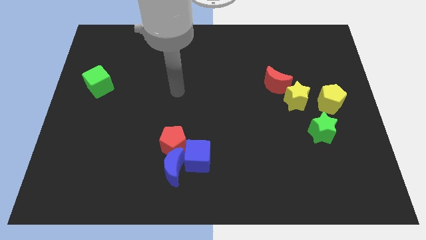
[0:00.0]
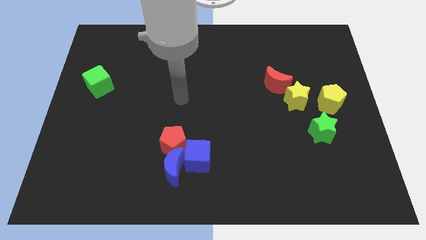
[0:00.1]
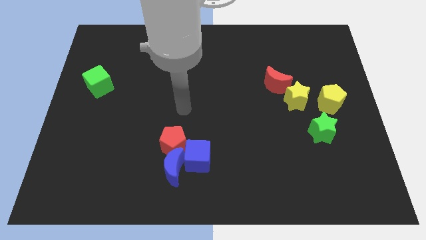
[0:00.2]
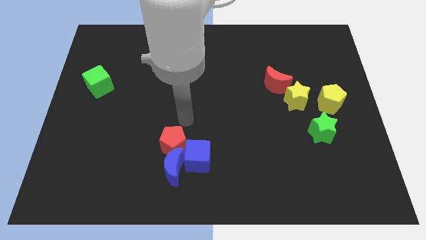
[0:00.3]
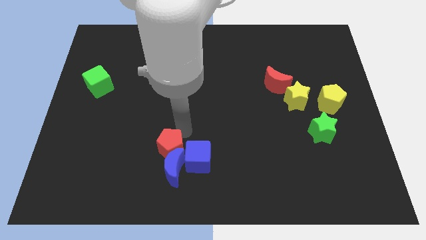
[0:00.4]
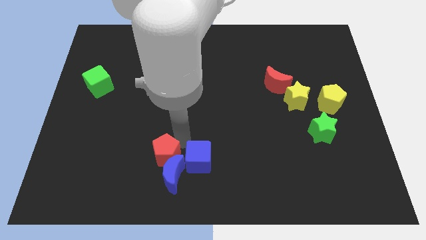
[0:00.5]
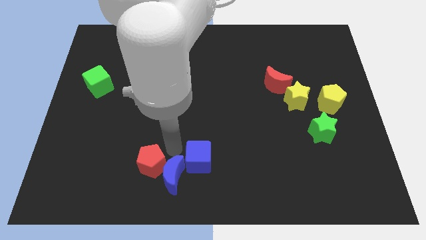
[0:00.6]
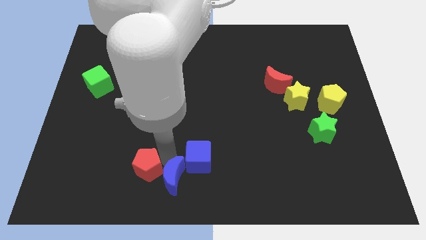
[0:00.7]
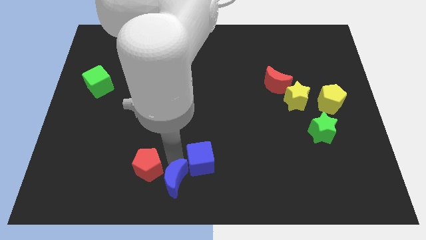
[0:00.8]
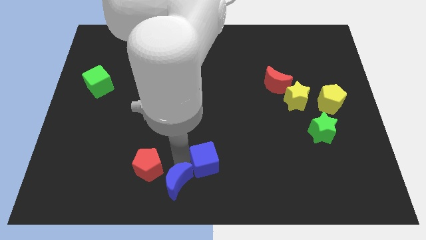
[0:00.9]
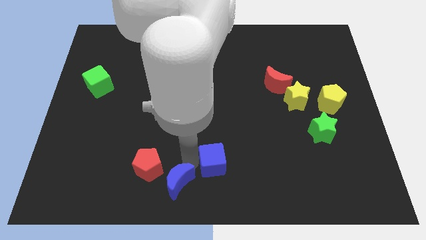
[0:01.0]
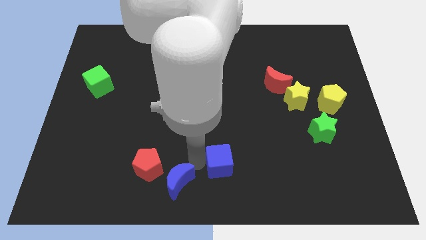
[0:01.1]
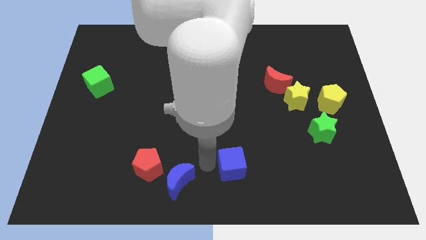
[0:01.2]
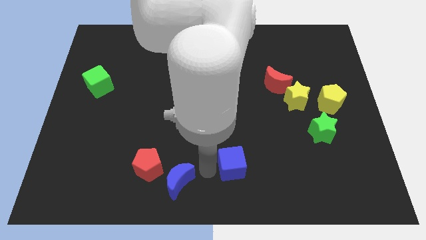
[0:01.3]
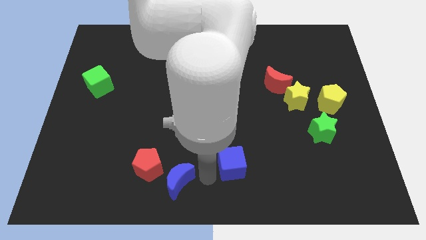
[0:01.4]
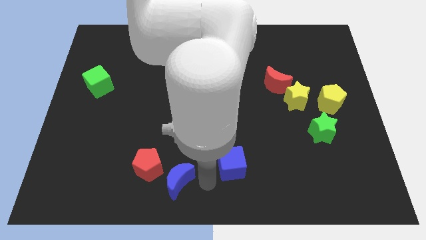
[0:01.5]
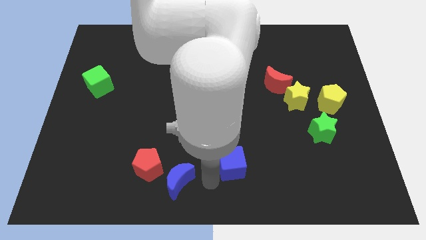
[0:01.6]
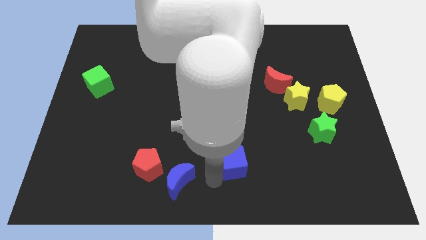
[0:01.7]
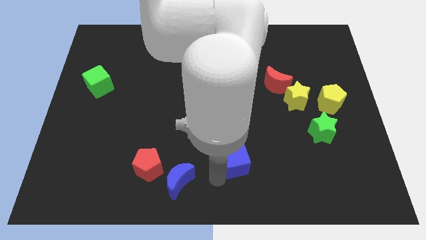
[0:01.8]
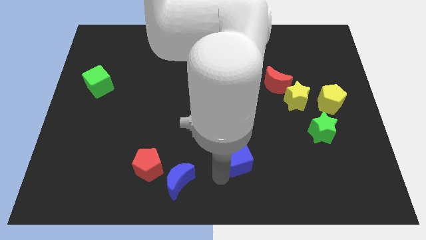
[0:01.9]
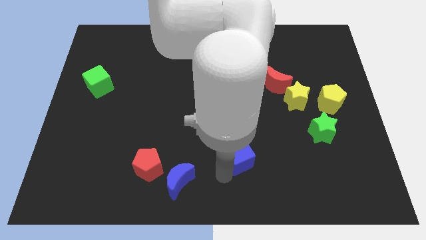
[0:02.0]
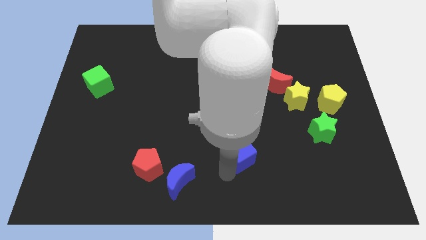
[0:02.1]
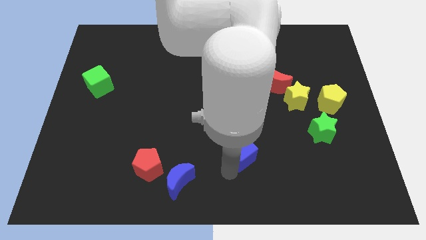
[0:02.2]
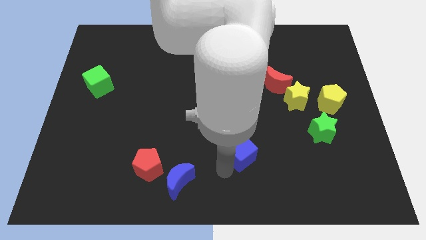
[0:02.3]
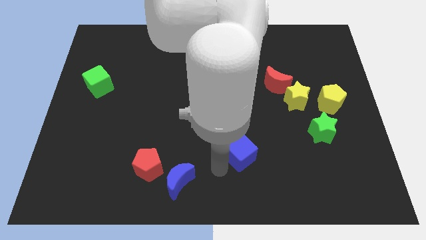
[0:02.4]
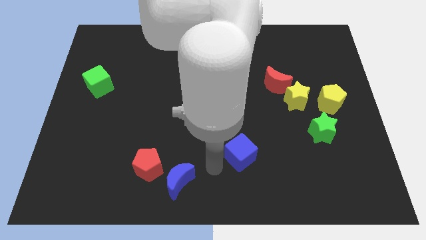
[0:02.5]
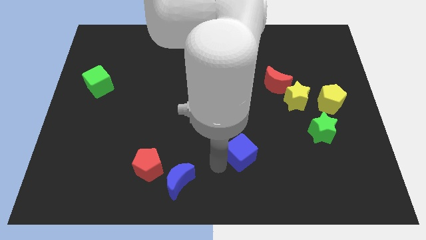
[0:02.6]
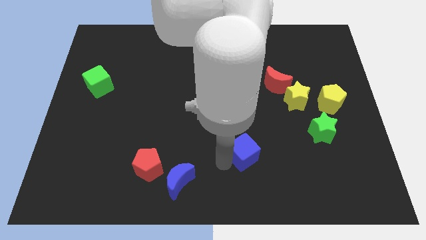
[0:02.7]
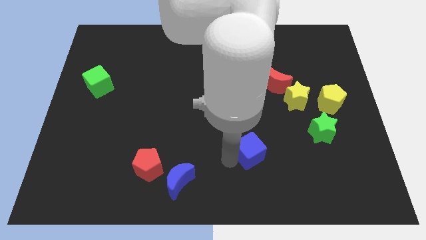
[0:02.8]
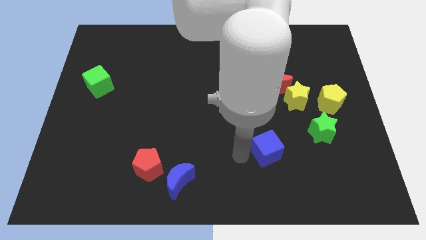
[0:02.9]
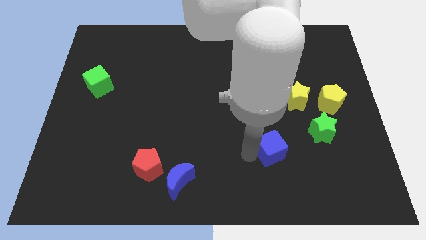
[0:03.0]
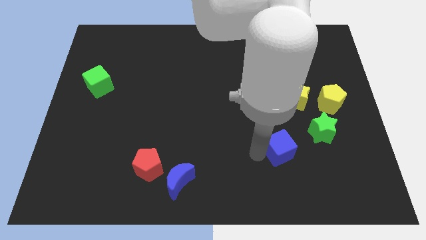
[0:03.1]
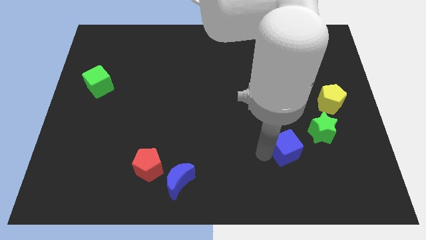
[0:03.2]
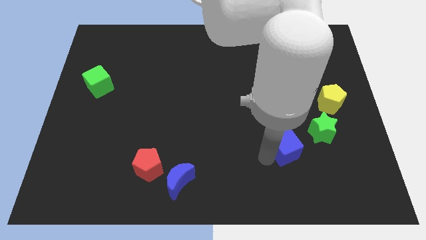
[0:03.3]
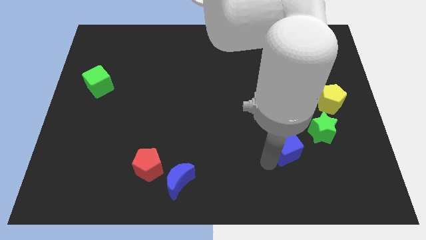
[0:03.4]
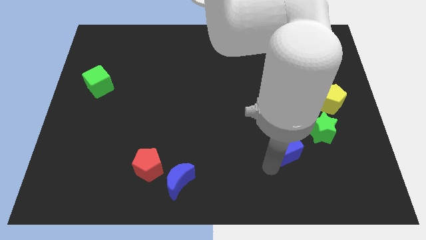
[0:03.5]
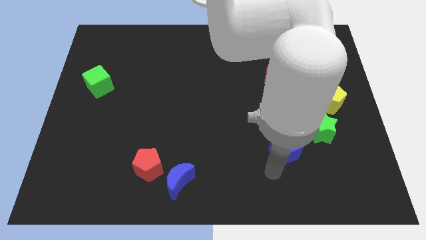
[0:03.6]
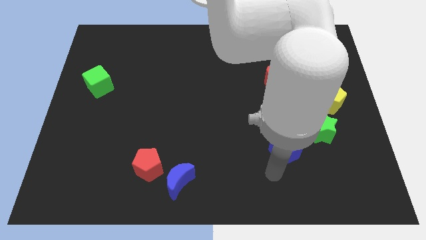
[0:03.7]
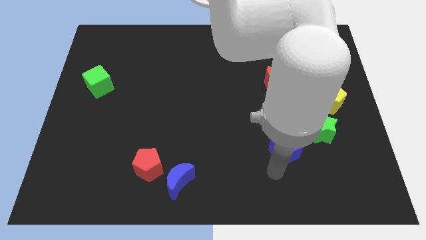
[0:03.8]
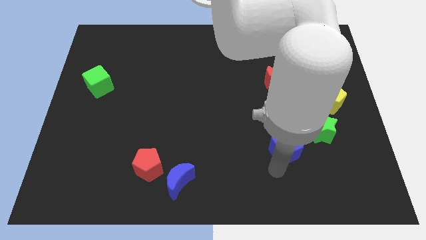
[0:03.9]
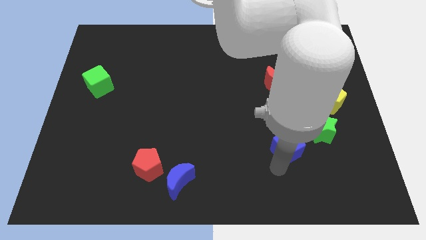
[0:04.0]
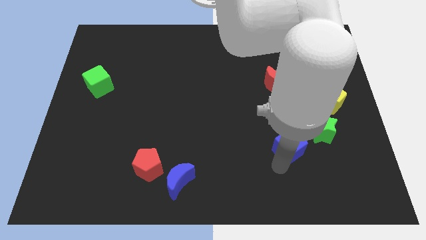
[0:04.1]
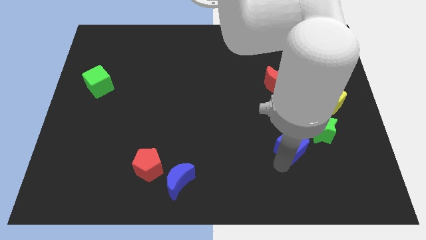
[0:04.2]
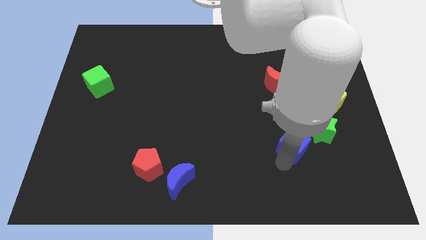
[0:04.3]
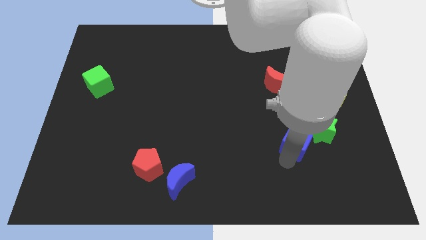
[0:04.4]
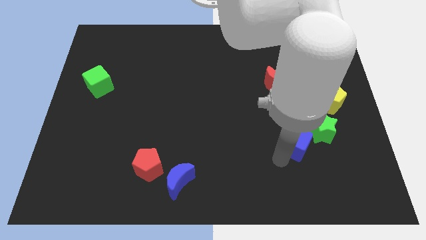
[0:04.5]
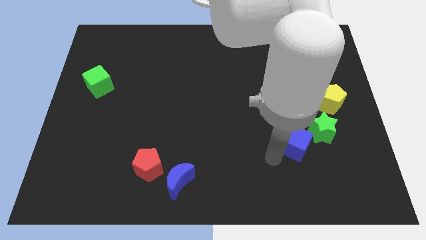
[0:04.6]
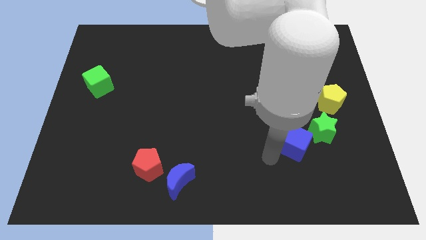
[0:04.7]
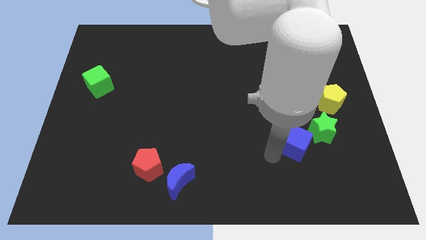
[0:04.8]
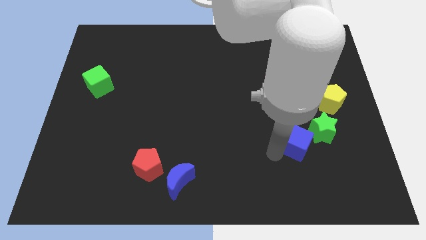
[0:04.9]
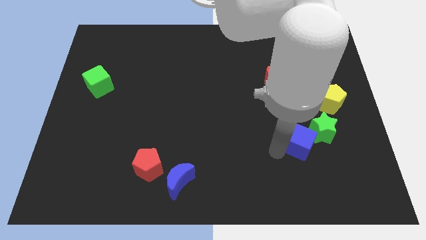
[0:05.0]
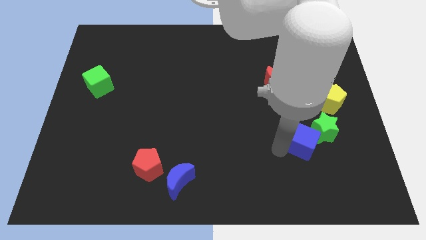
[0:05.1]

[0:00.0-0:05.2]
put the blue cube towards the green star

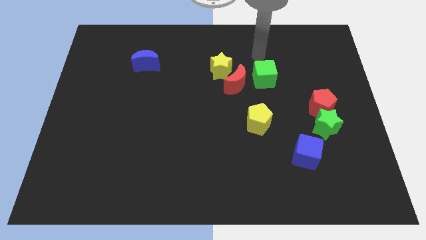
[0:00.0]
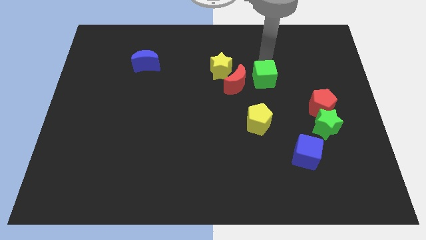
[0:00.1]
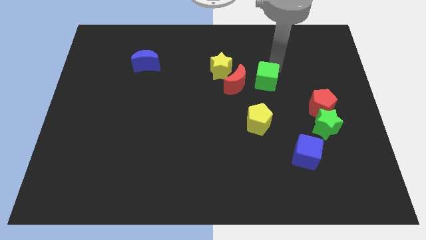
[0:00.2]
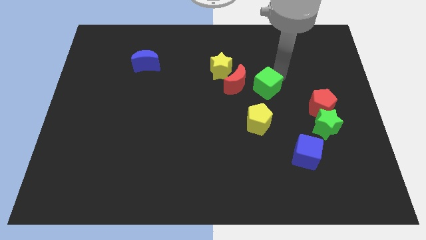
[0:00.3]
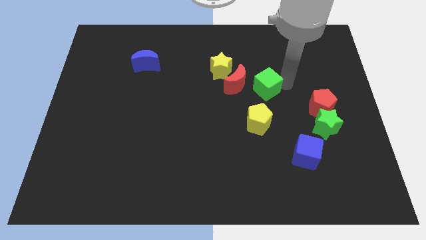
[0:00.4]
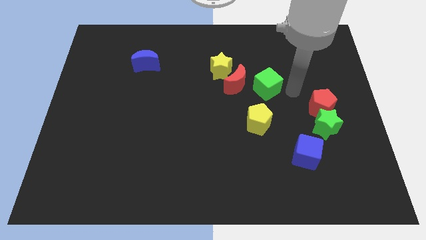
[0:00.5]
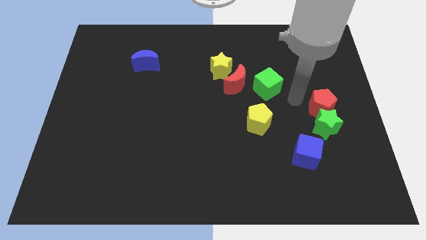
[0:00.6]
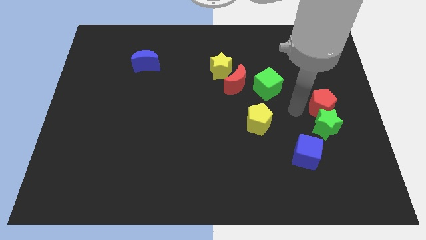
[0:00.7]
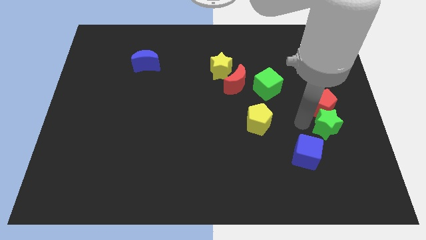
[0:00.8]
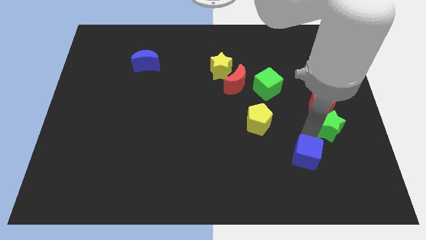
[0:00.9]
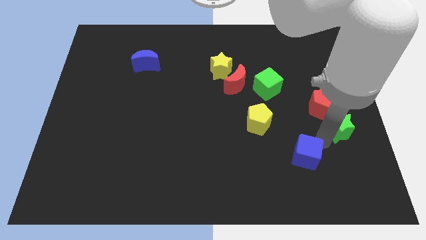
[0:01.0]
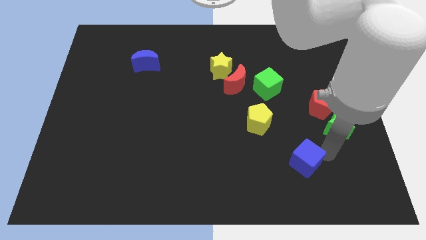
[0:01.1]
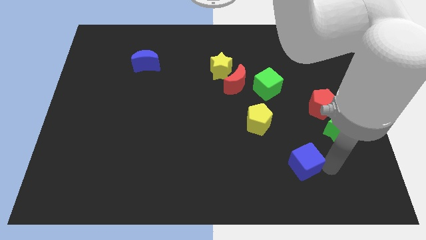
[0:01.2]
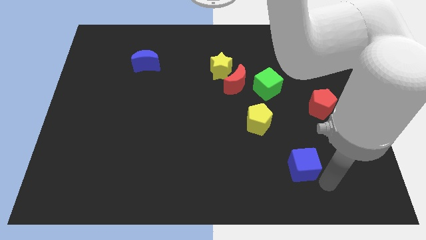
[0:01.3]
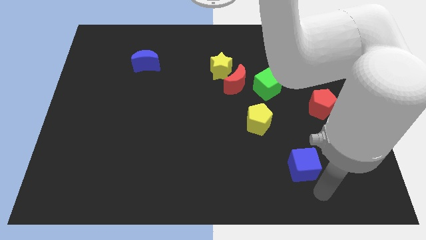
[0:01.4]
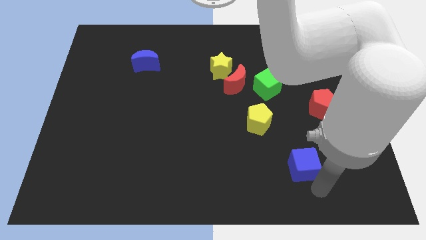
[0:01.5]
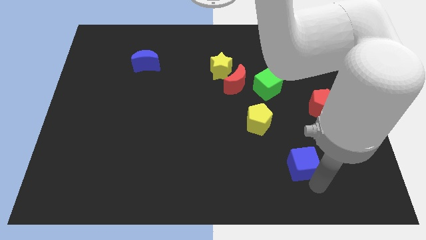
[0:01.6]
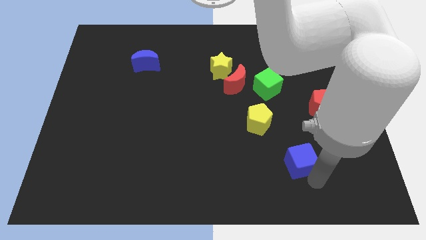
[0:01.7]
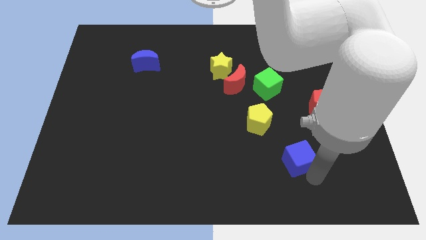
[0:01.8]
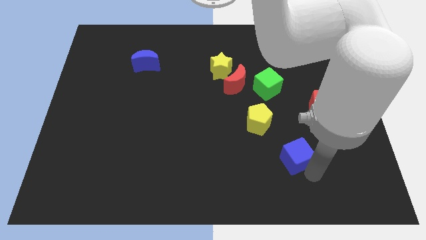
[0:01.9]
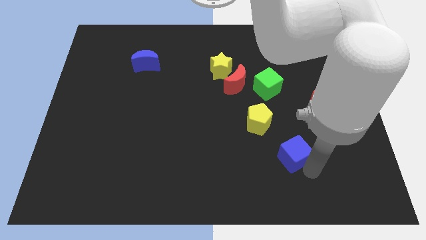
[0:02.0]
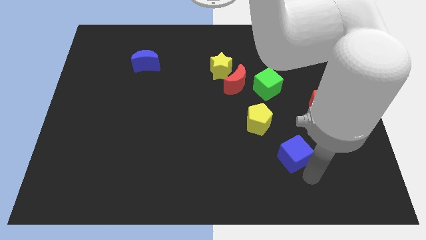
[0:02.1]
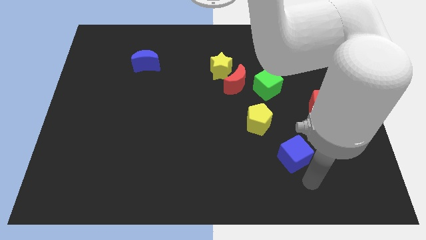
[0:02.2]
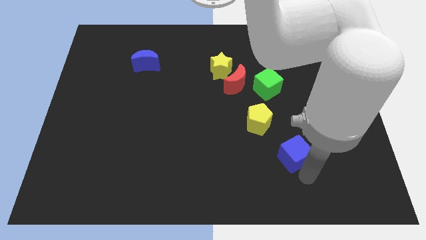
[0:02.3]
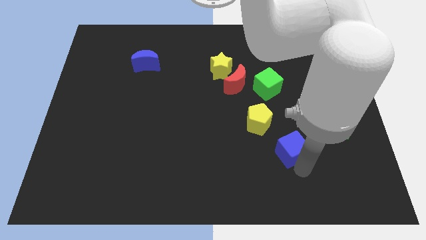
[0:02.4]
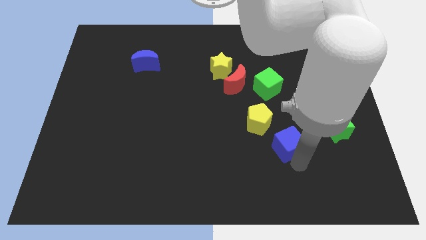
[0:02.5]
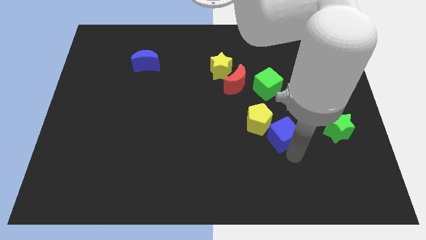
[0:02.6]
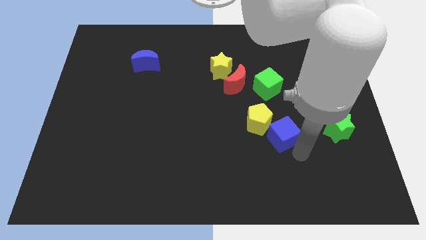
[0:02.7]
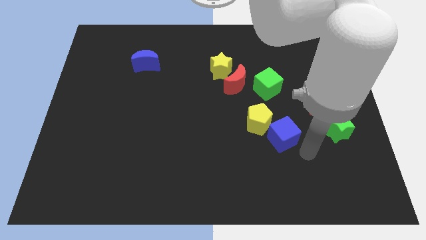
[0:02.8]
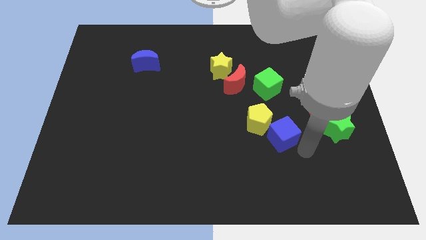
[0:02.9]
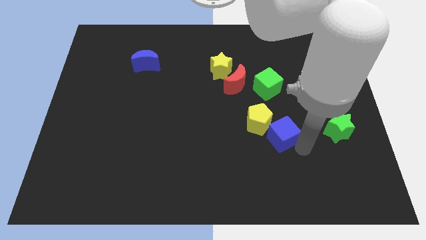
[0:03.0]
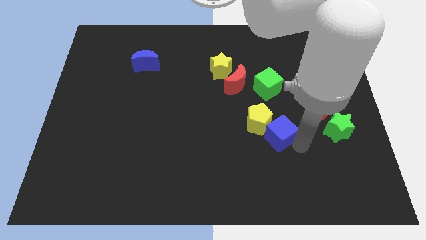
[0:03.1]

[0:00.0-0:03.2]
put the blue cube close to the yellow pentagon
